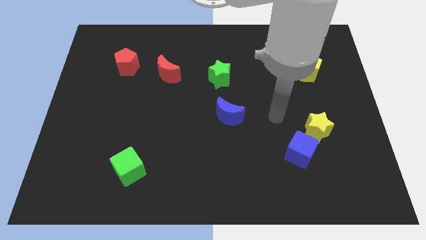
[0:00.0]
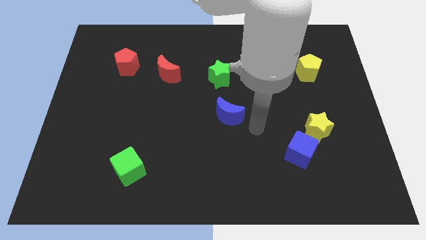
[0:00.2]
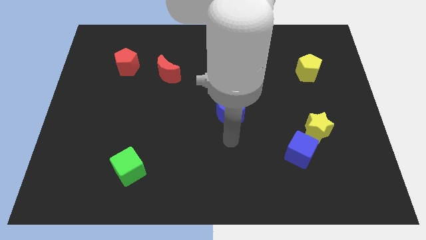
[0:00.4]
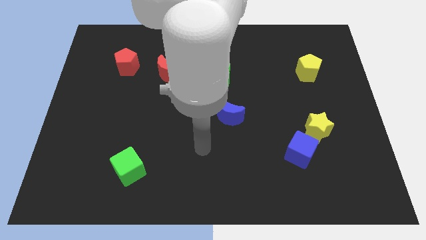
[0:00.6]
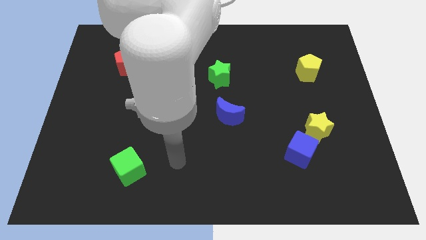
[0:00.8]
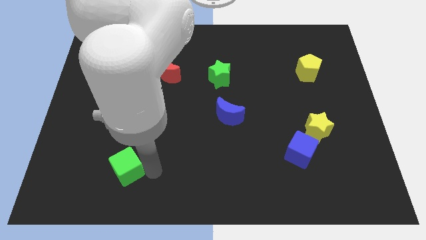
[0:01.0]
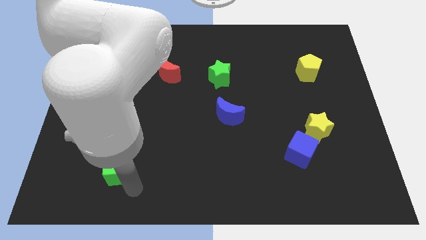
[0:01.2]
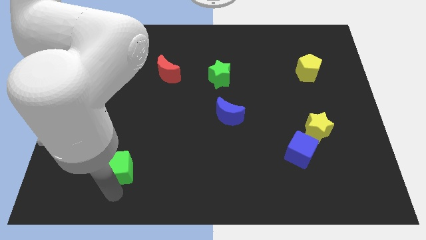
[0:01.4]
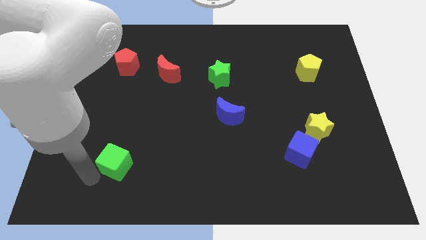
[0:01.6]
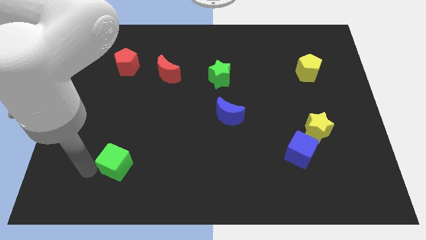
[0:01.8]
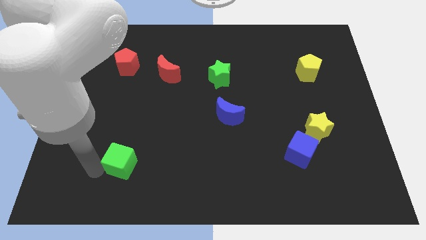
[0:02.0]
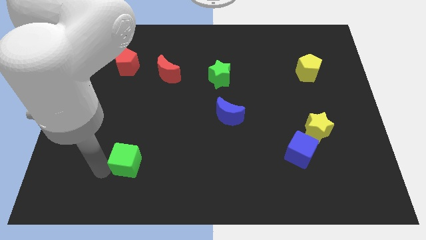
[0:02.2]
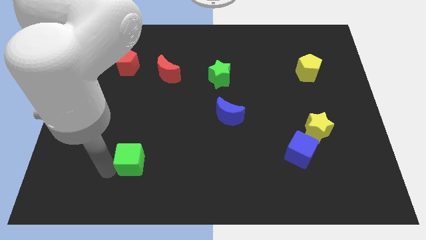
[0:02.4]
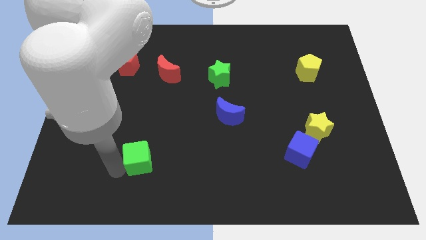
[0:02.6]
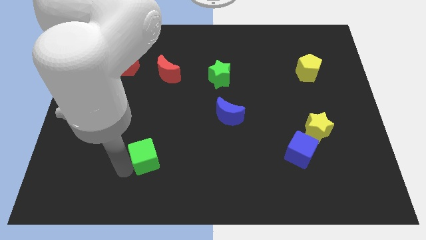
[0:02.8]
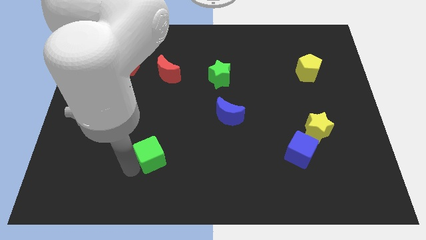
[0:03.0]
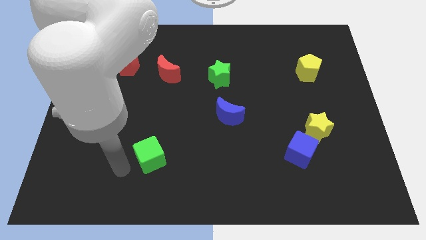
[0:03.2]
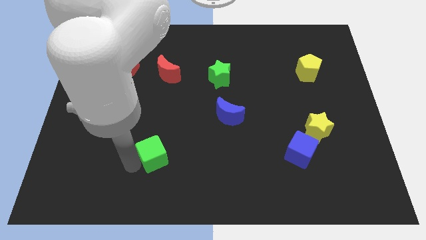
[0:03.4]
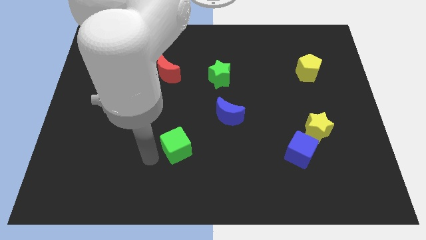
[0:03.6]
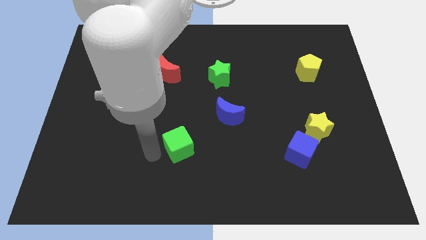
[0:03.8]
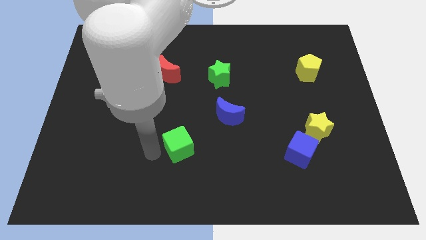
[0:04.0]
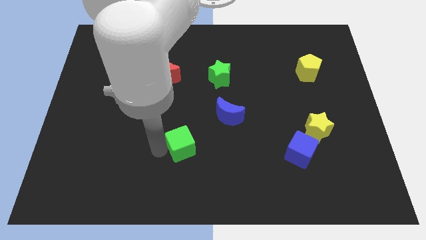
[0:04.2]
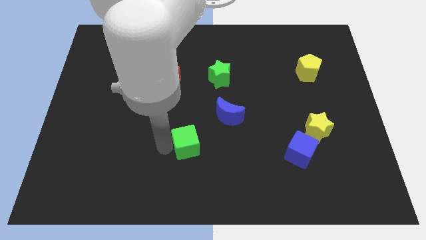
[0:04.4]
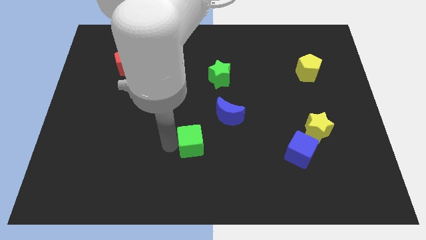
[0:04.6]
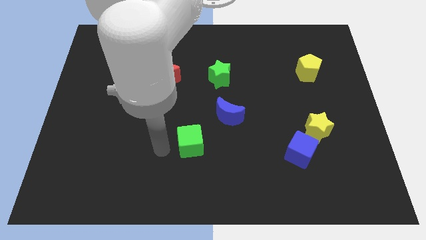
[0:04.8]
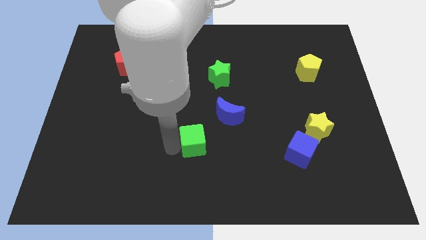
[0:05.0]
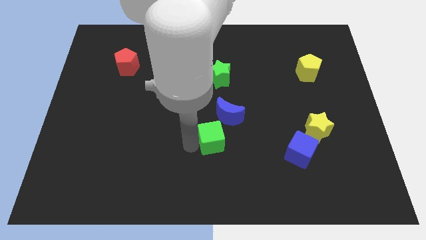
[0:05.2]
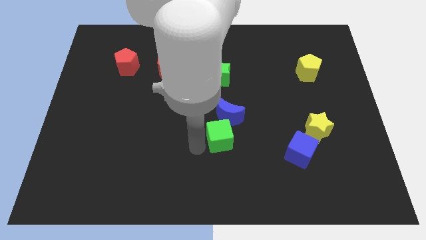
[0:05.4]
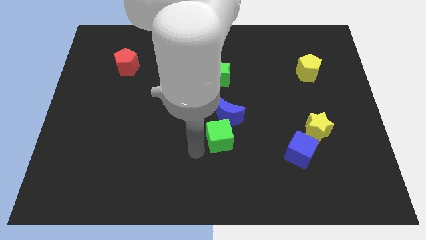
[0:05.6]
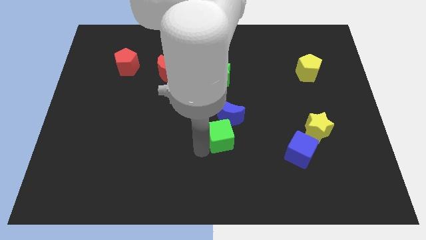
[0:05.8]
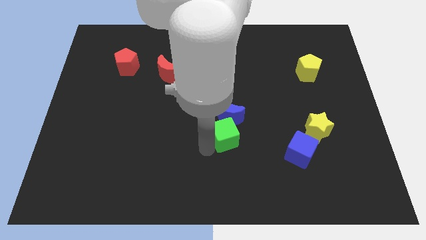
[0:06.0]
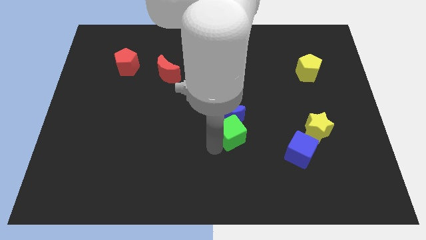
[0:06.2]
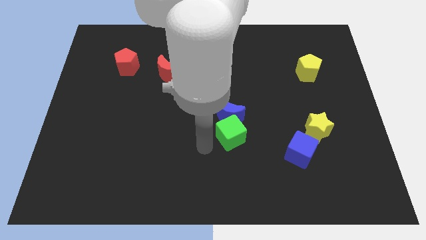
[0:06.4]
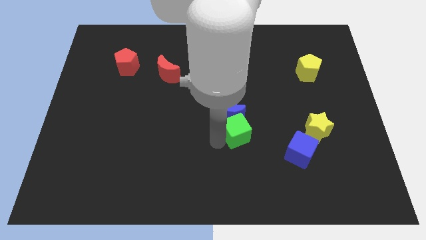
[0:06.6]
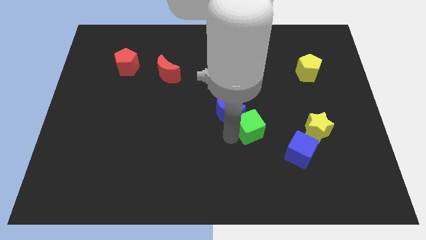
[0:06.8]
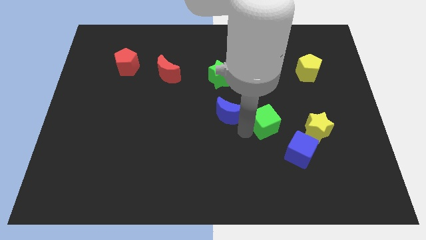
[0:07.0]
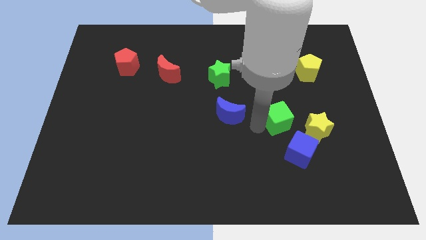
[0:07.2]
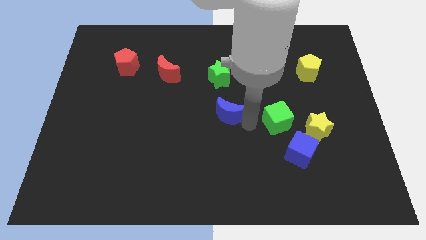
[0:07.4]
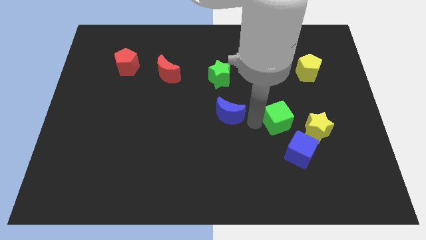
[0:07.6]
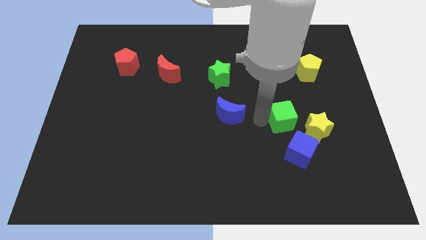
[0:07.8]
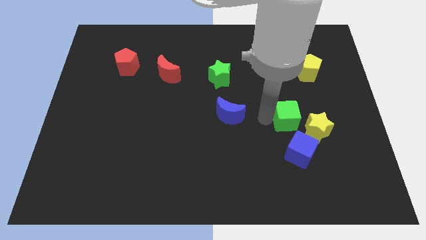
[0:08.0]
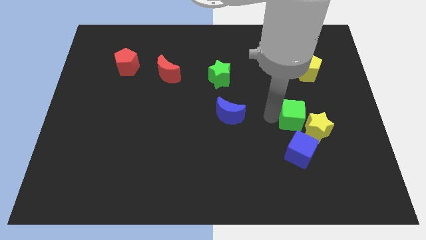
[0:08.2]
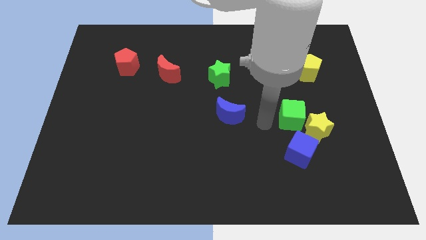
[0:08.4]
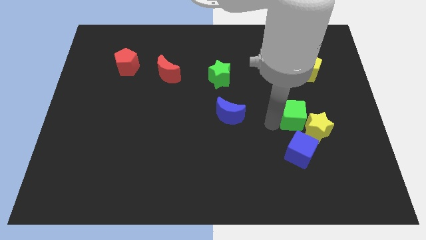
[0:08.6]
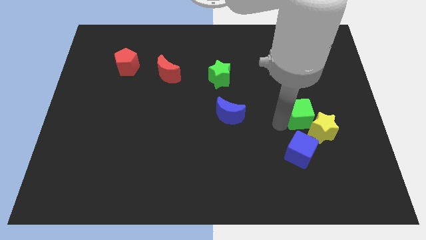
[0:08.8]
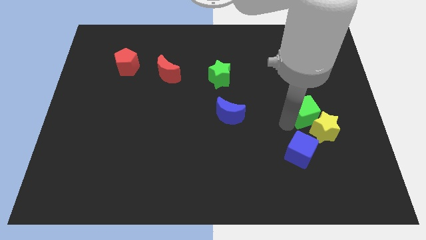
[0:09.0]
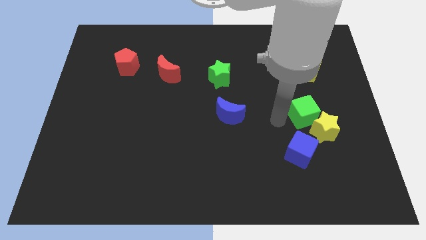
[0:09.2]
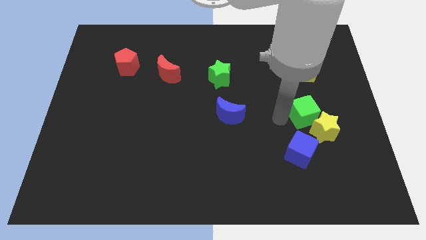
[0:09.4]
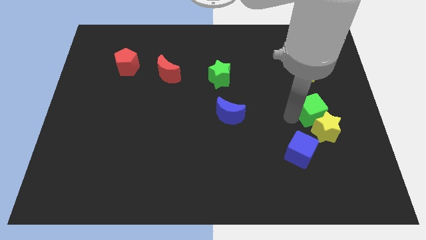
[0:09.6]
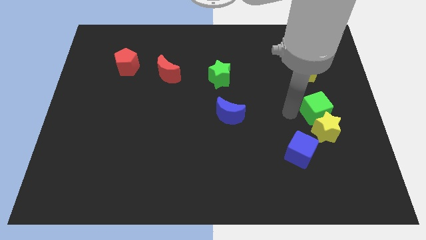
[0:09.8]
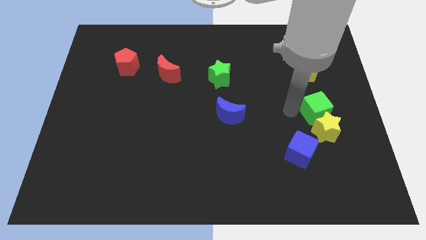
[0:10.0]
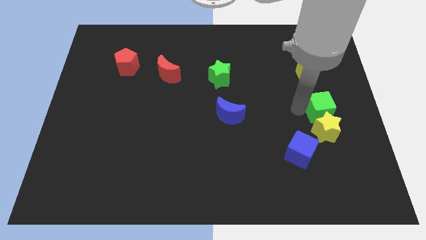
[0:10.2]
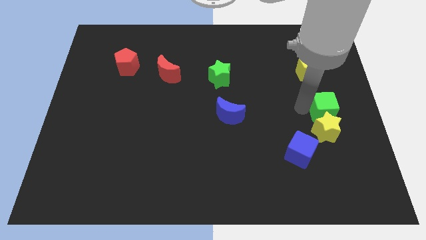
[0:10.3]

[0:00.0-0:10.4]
put the green cube to the center right
